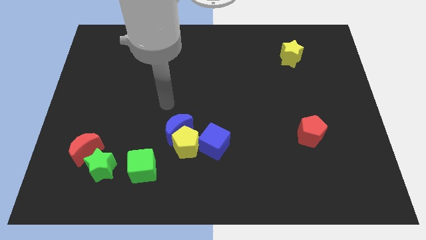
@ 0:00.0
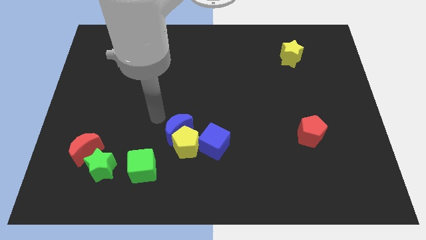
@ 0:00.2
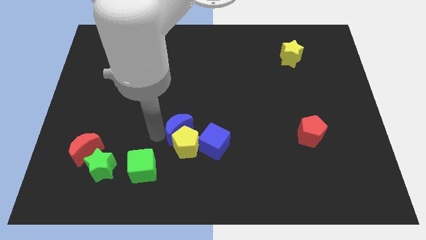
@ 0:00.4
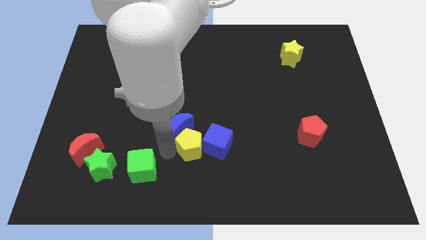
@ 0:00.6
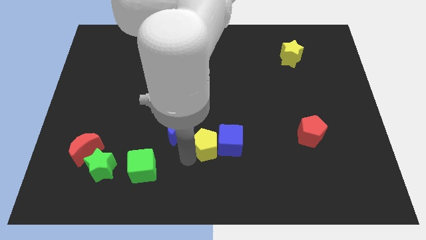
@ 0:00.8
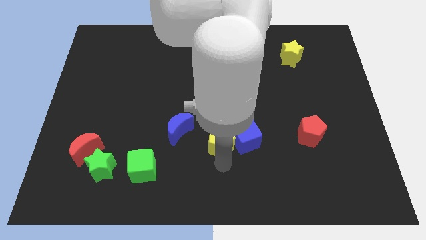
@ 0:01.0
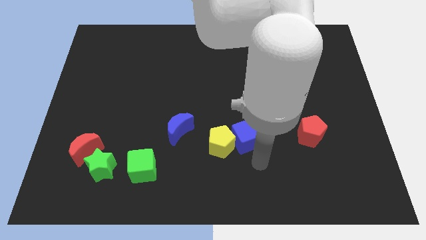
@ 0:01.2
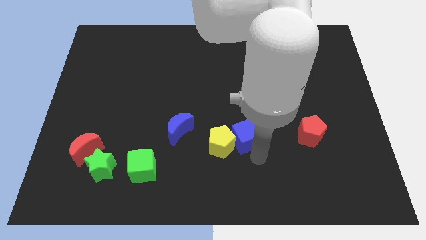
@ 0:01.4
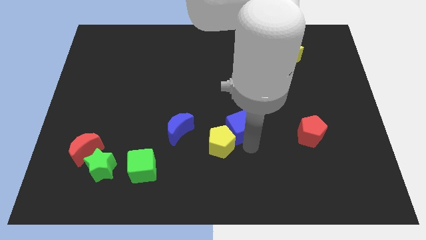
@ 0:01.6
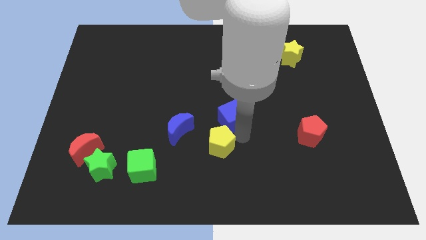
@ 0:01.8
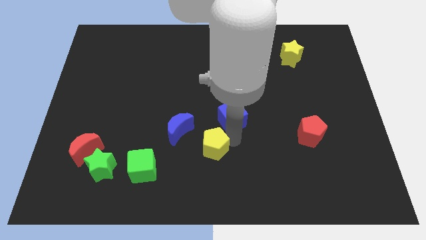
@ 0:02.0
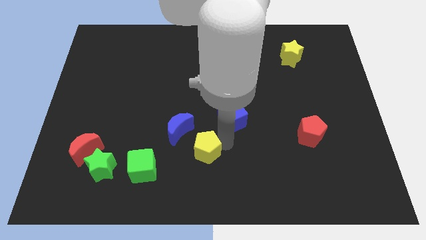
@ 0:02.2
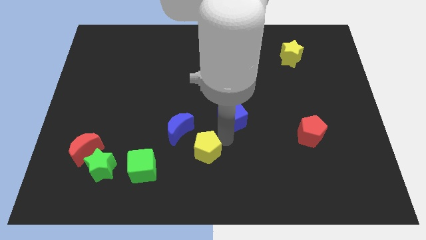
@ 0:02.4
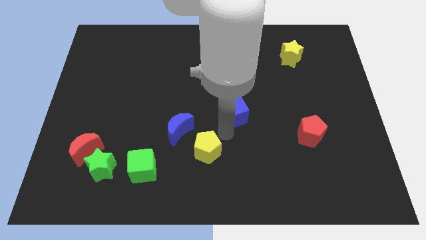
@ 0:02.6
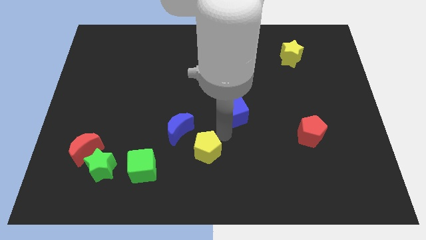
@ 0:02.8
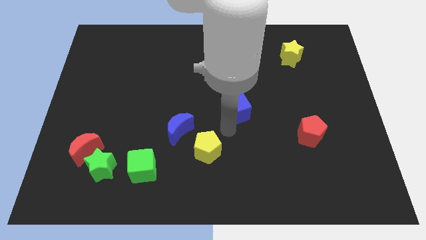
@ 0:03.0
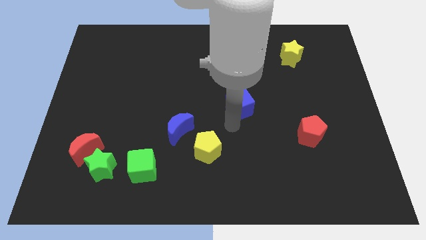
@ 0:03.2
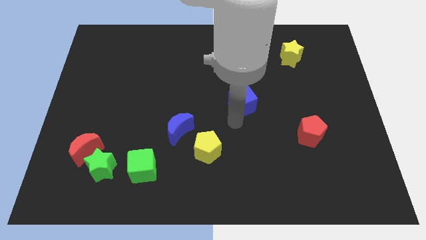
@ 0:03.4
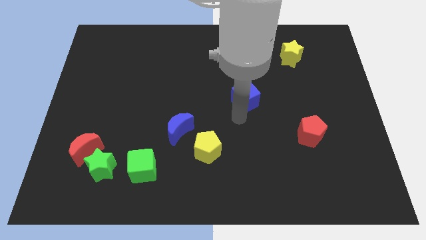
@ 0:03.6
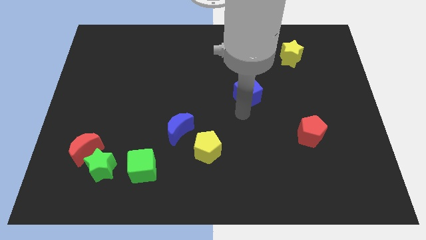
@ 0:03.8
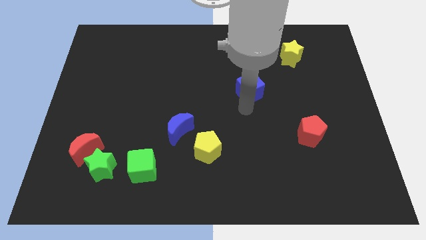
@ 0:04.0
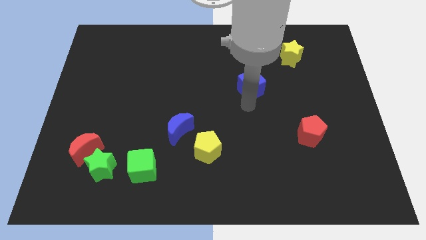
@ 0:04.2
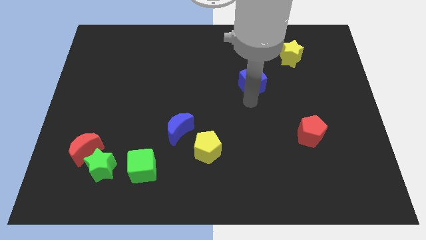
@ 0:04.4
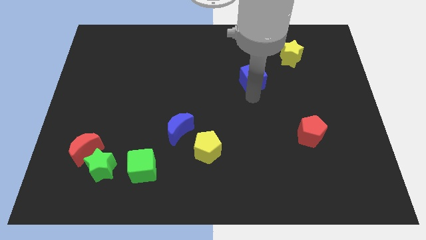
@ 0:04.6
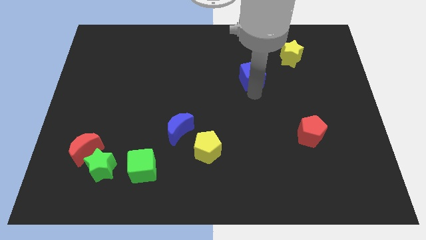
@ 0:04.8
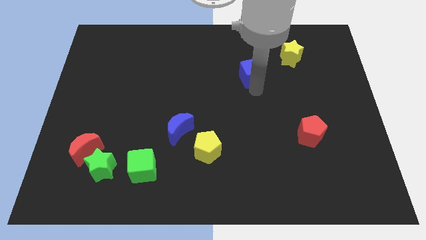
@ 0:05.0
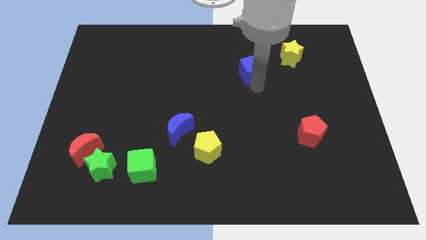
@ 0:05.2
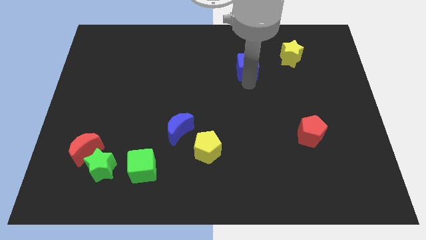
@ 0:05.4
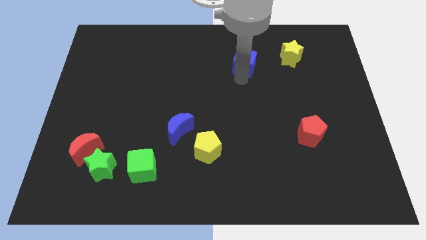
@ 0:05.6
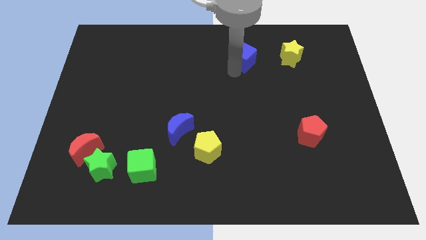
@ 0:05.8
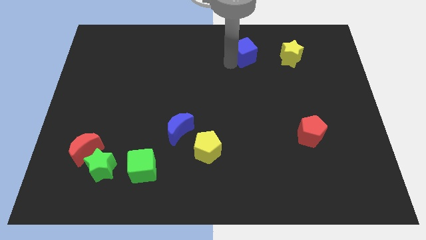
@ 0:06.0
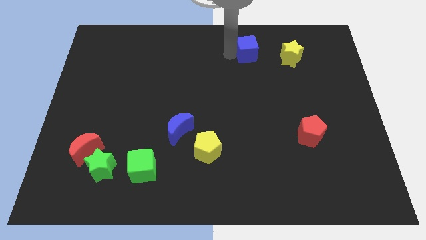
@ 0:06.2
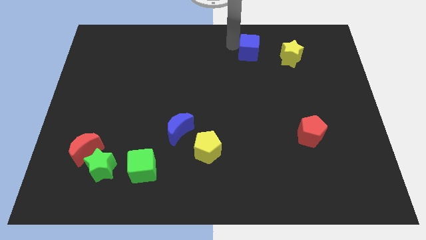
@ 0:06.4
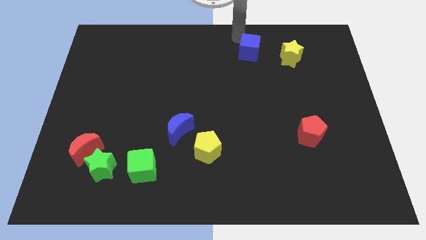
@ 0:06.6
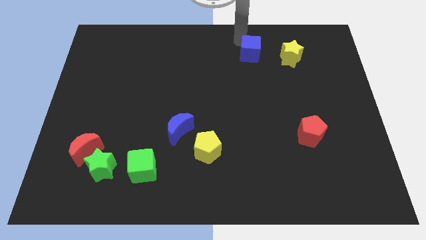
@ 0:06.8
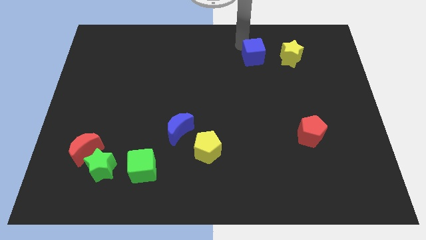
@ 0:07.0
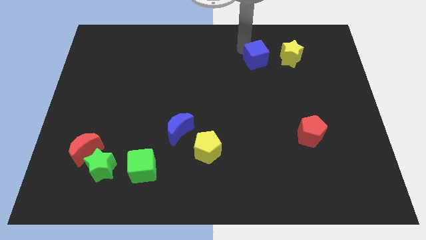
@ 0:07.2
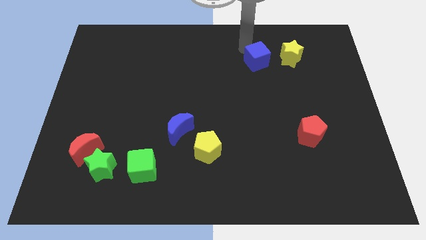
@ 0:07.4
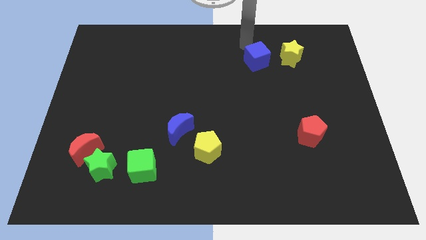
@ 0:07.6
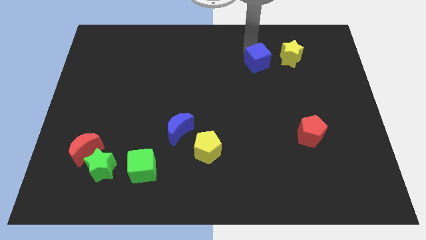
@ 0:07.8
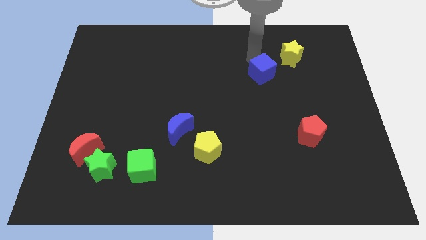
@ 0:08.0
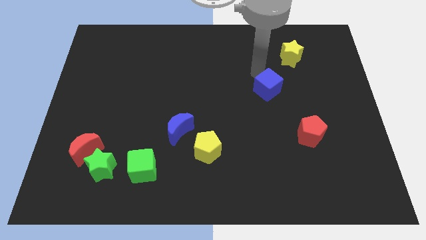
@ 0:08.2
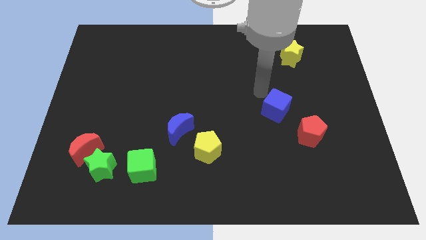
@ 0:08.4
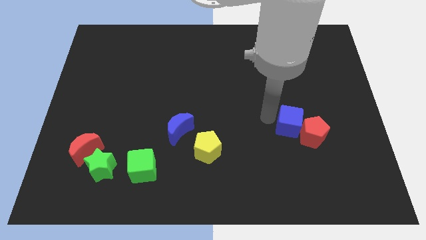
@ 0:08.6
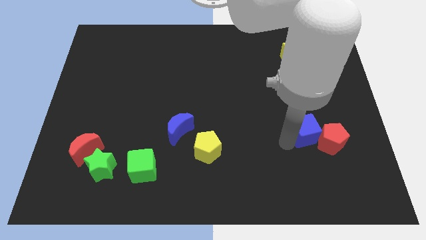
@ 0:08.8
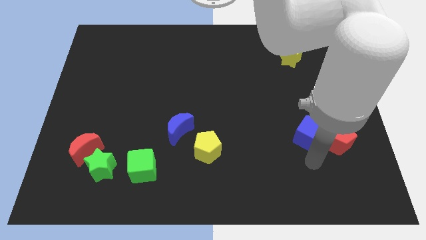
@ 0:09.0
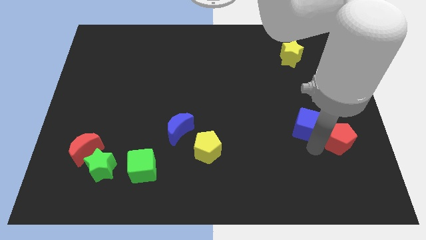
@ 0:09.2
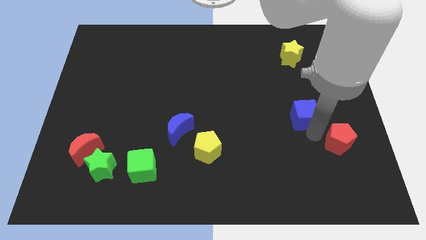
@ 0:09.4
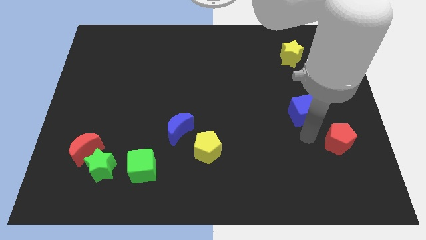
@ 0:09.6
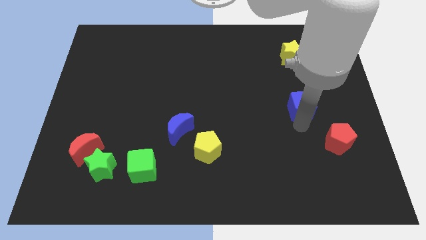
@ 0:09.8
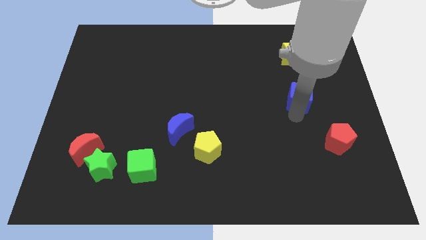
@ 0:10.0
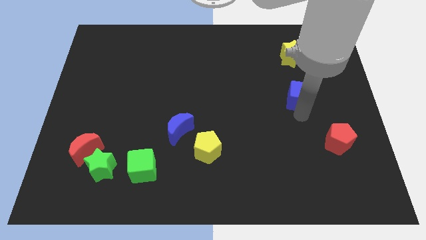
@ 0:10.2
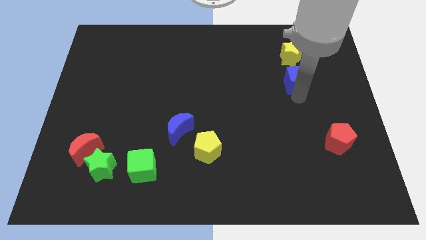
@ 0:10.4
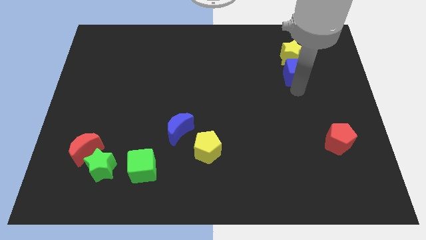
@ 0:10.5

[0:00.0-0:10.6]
put the blue cube next to the yellow star

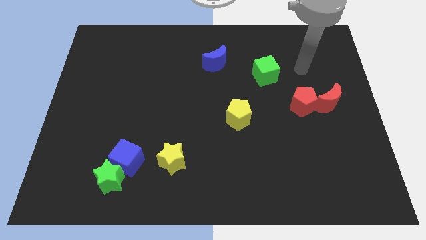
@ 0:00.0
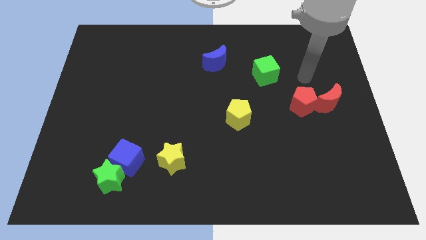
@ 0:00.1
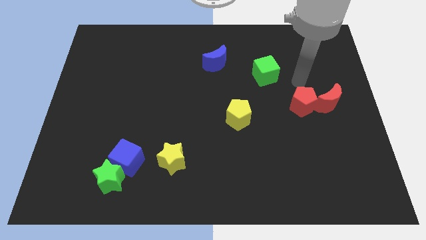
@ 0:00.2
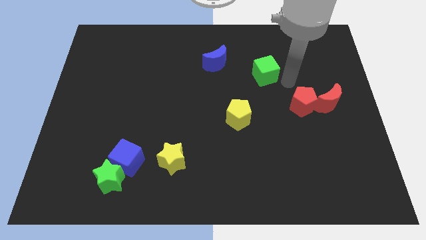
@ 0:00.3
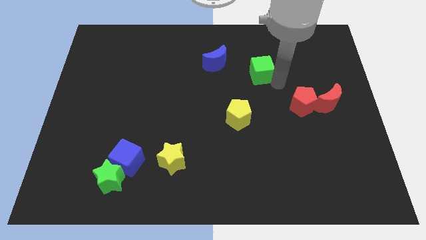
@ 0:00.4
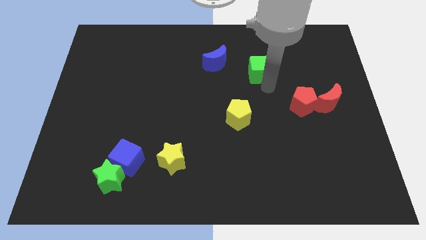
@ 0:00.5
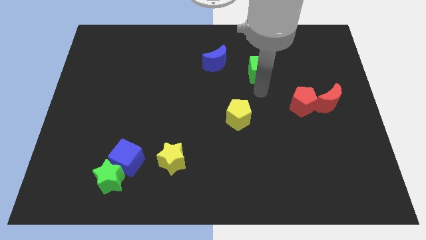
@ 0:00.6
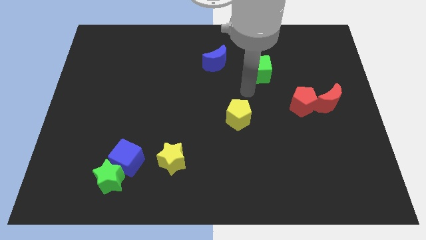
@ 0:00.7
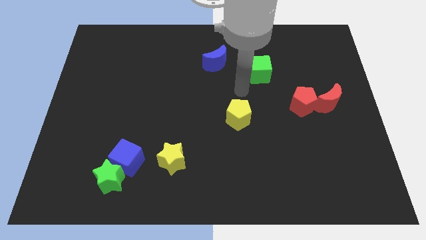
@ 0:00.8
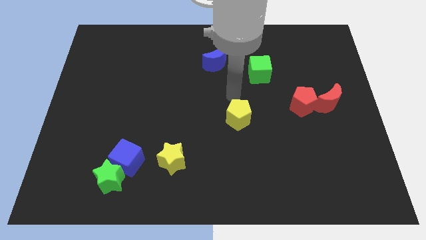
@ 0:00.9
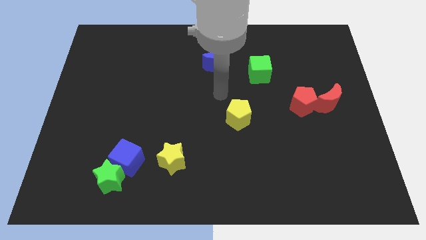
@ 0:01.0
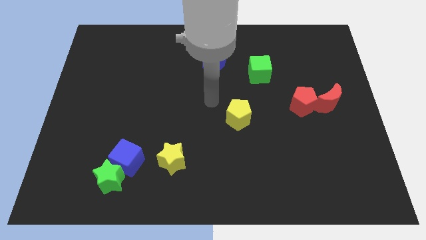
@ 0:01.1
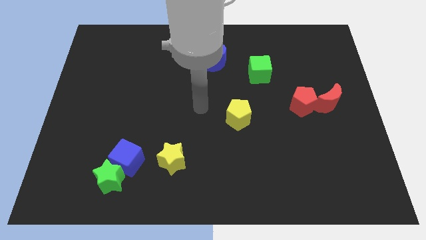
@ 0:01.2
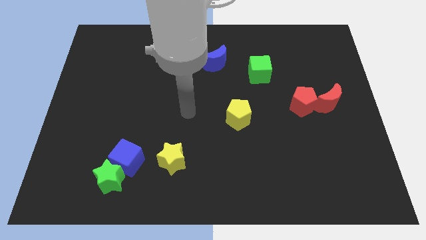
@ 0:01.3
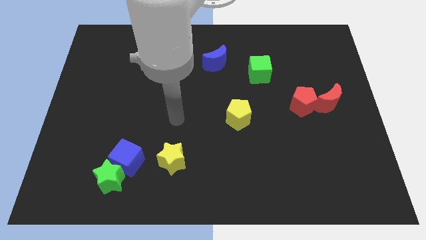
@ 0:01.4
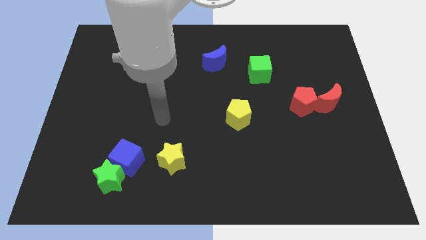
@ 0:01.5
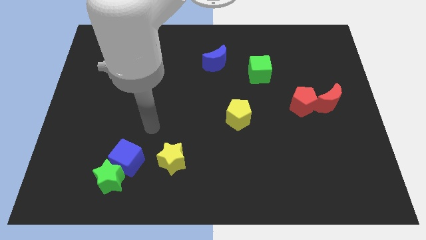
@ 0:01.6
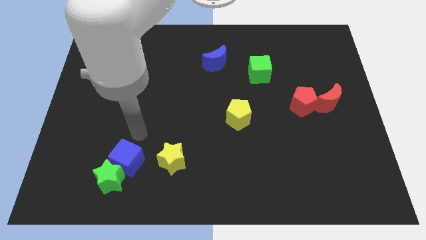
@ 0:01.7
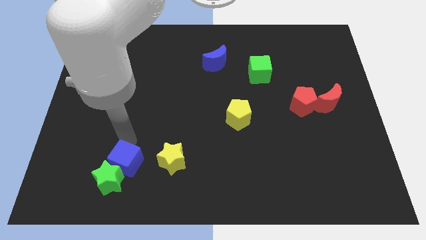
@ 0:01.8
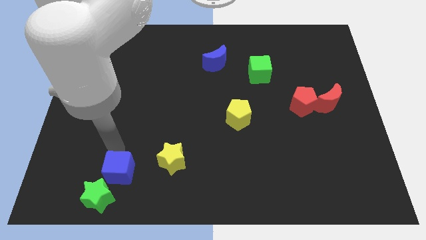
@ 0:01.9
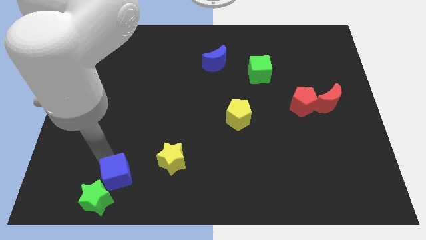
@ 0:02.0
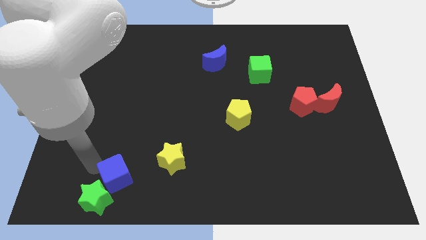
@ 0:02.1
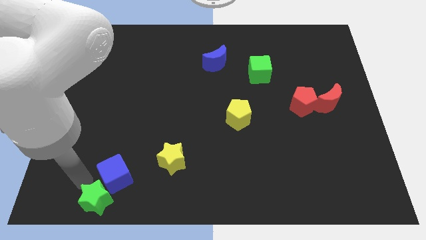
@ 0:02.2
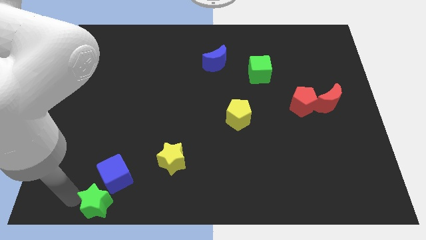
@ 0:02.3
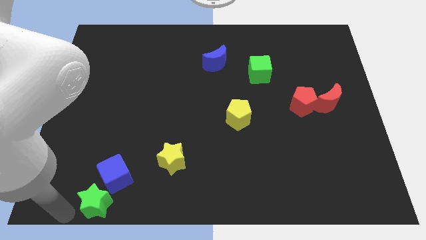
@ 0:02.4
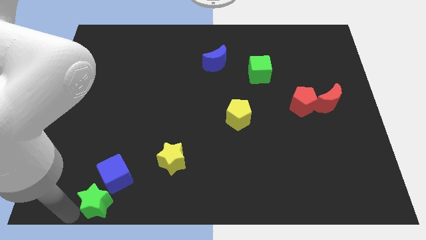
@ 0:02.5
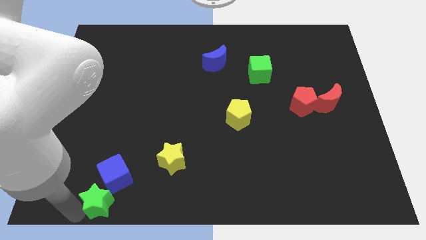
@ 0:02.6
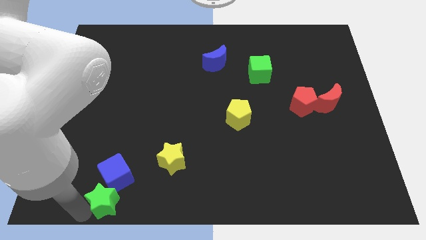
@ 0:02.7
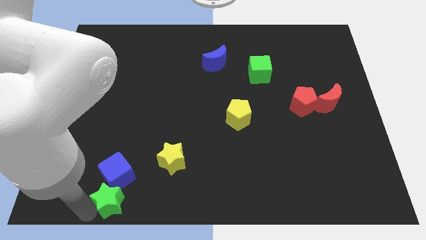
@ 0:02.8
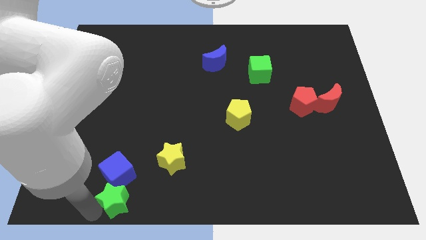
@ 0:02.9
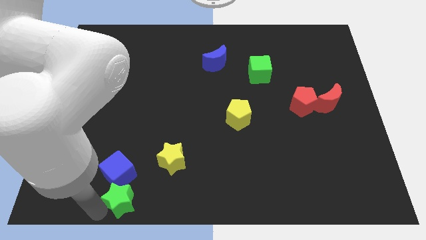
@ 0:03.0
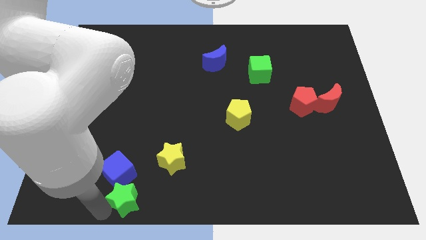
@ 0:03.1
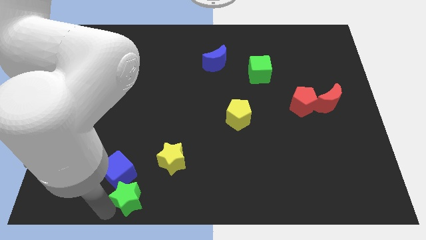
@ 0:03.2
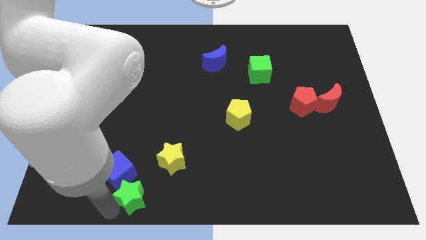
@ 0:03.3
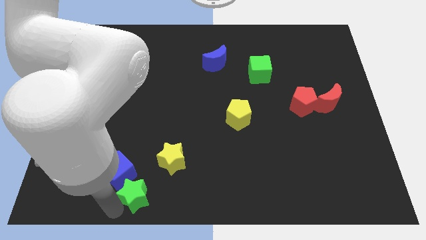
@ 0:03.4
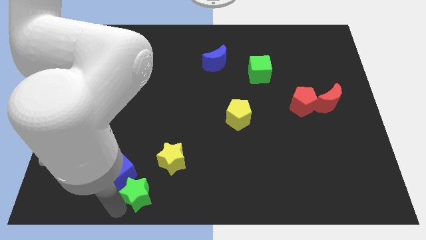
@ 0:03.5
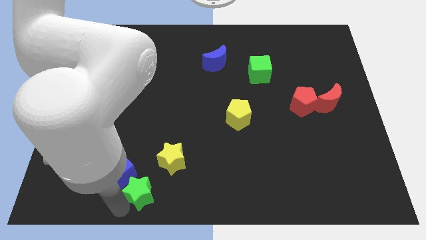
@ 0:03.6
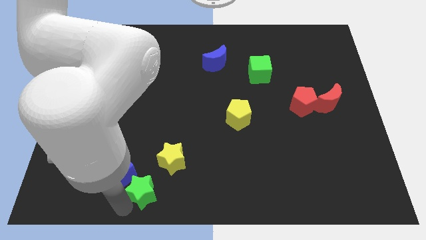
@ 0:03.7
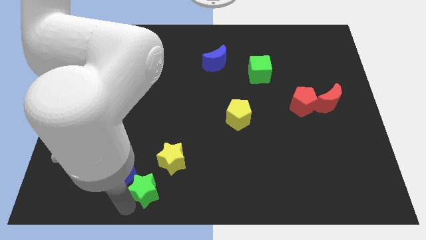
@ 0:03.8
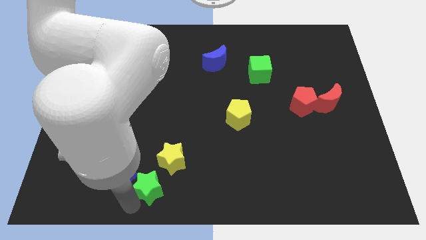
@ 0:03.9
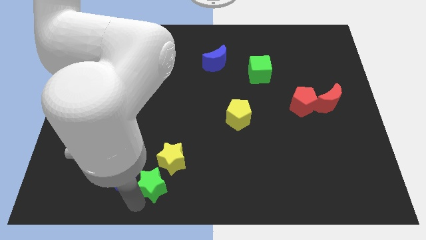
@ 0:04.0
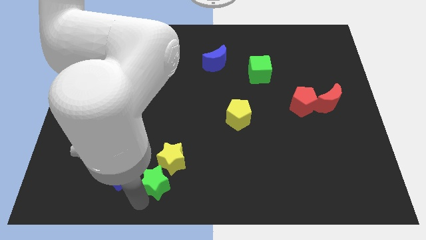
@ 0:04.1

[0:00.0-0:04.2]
move the green star towards the yellow star
